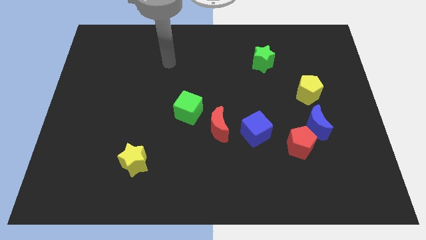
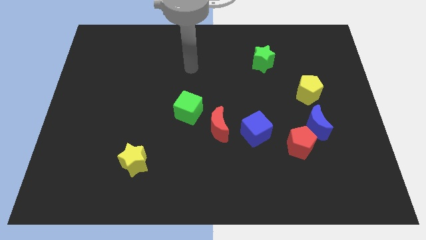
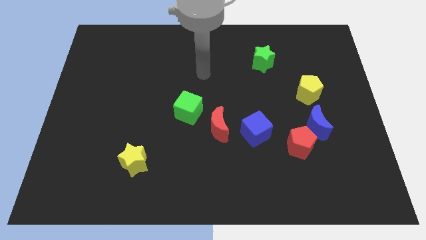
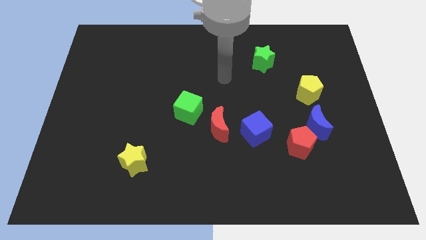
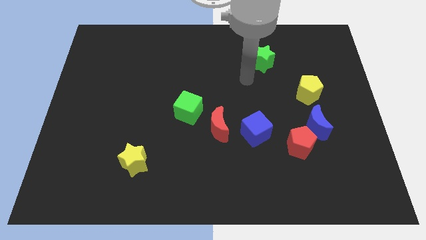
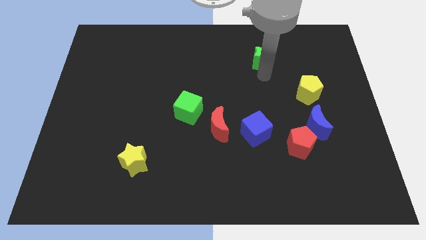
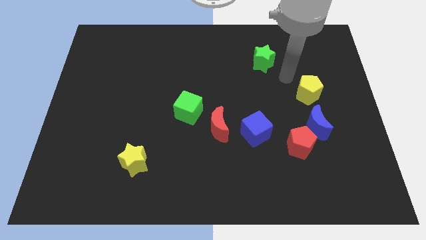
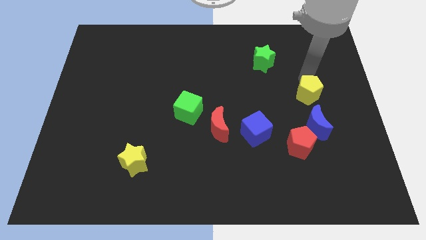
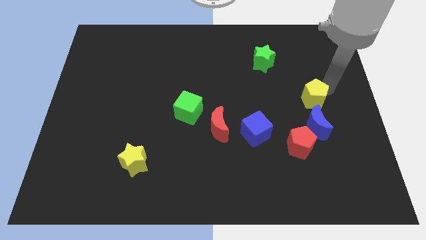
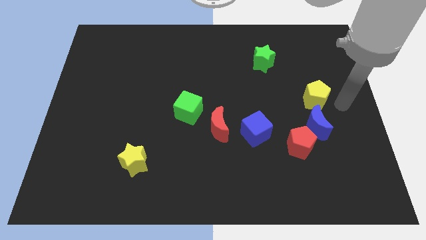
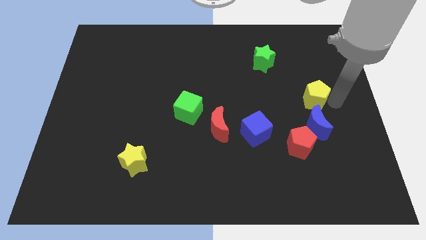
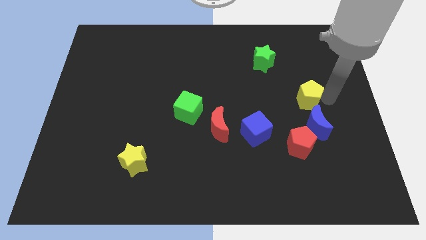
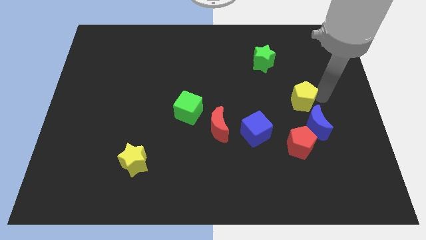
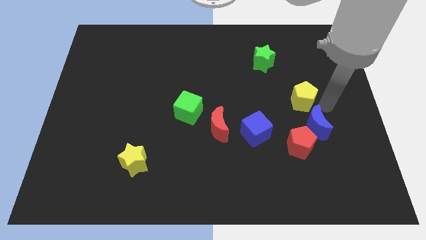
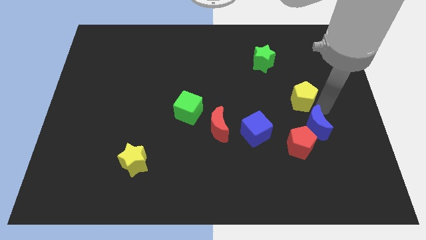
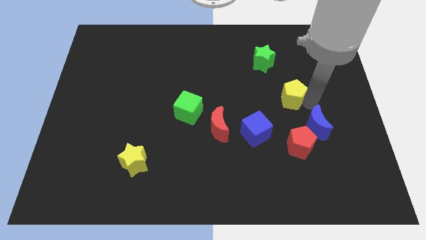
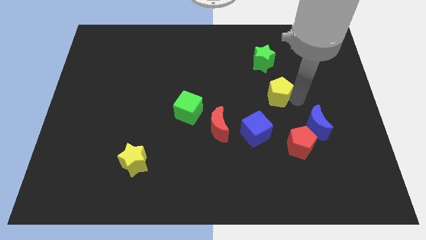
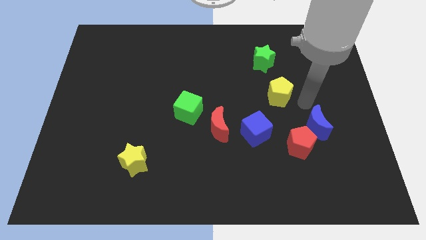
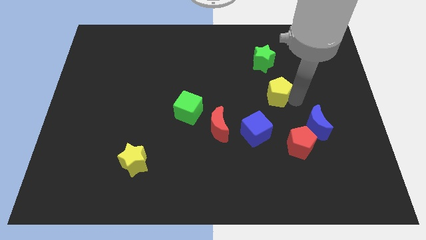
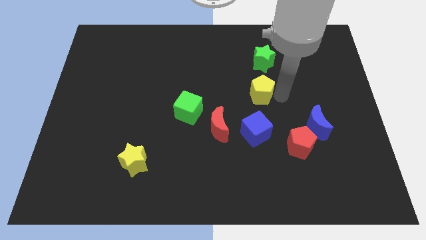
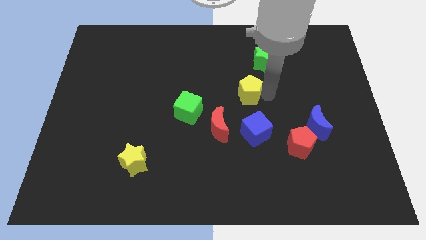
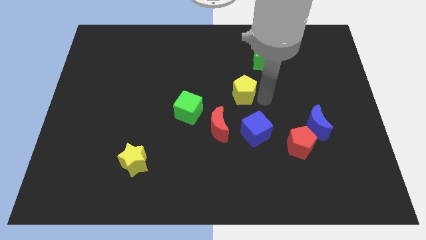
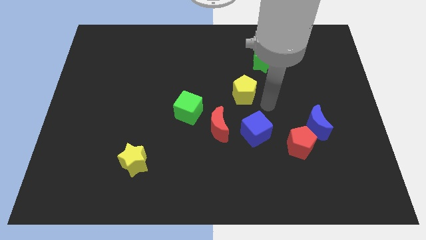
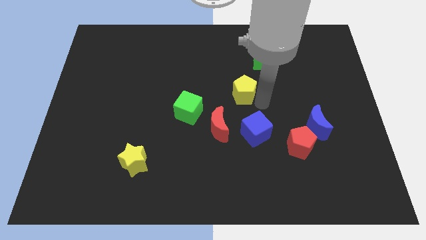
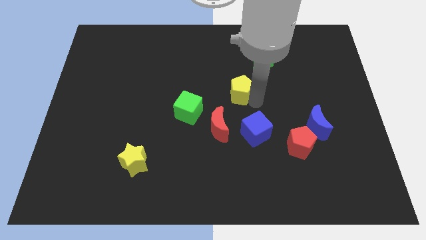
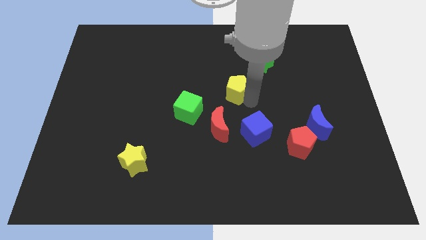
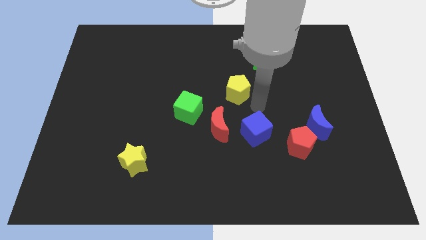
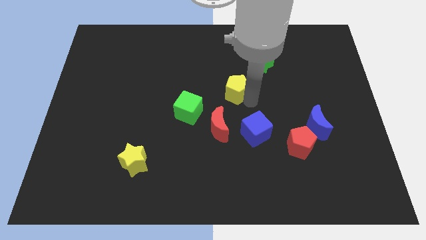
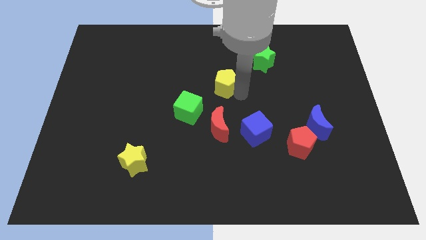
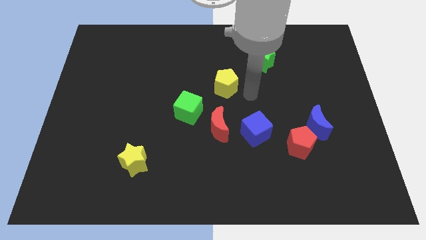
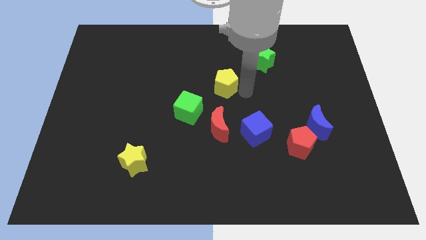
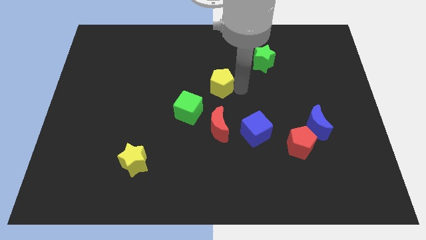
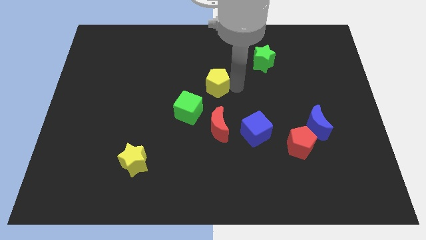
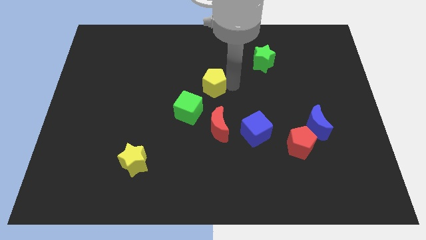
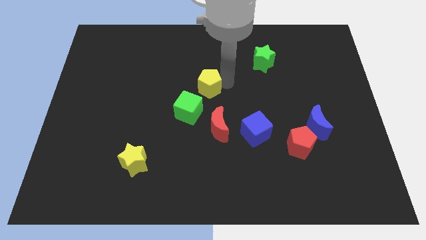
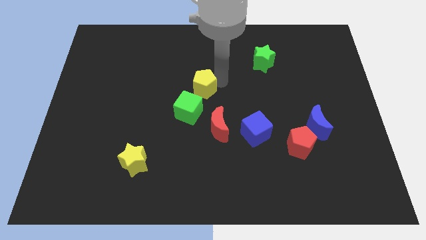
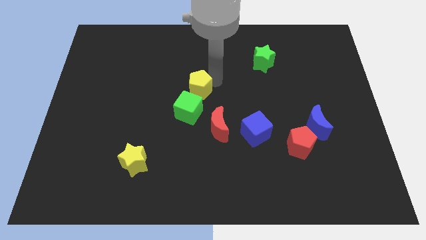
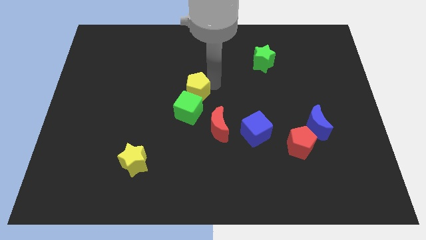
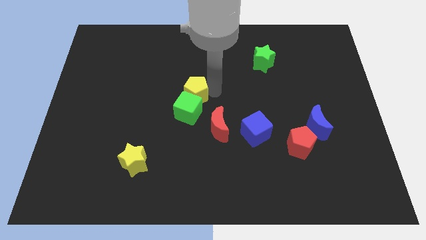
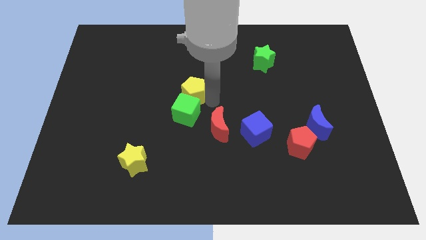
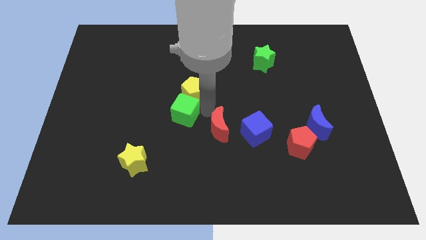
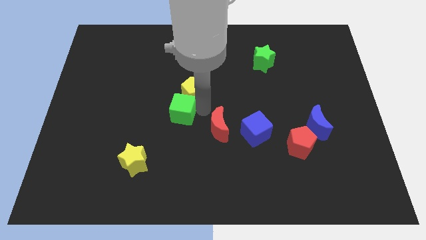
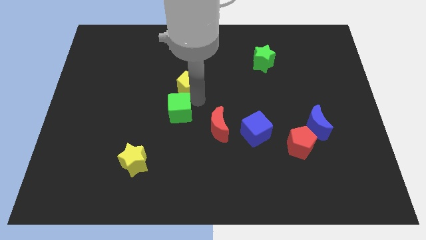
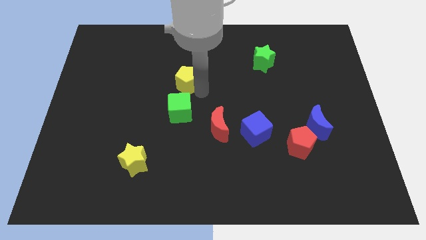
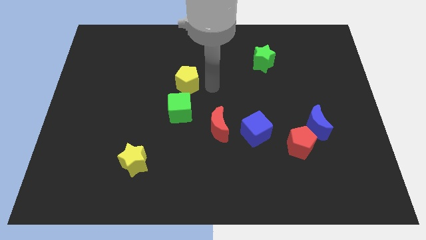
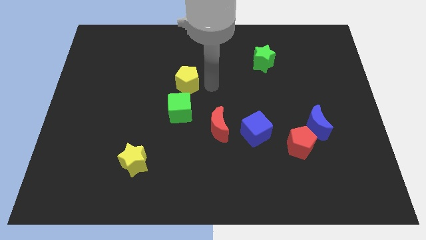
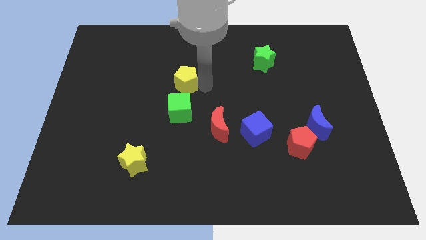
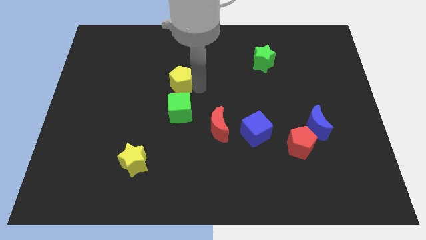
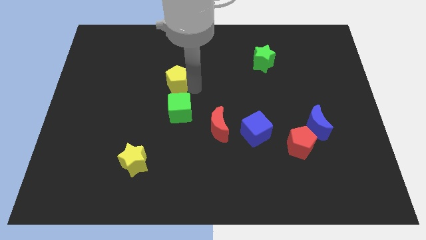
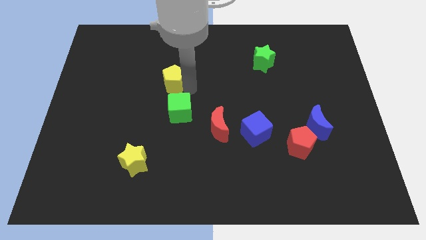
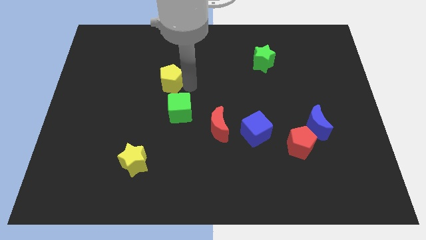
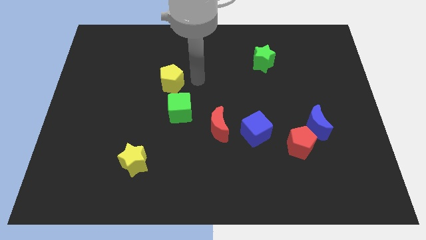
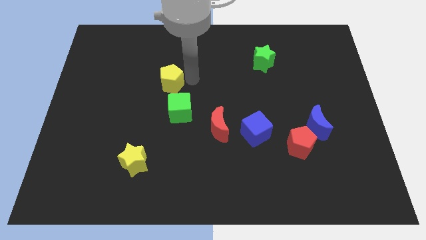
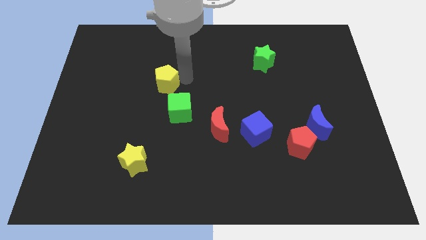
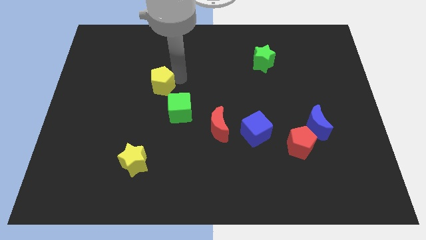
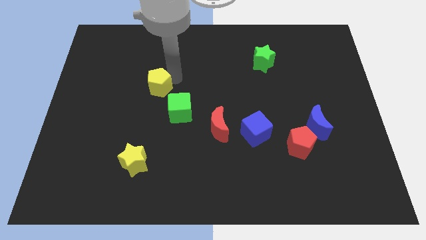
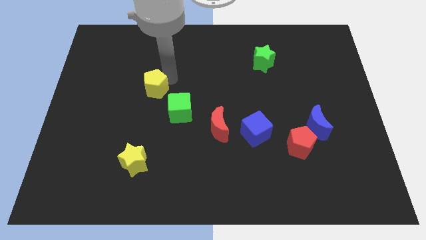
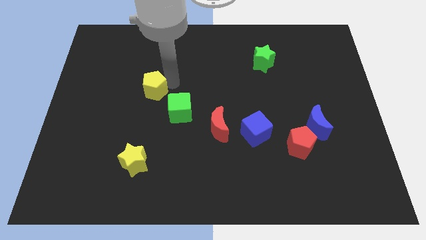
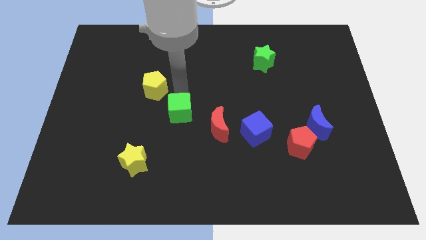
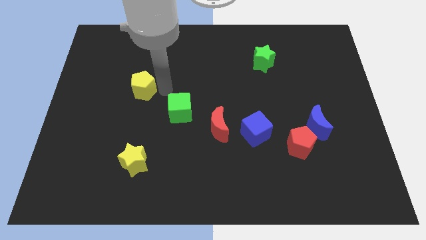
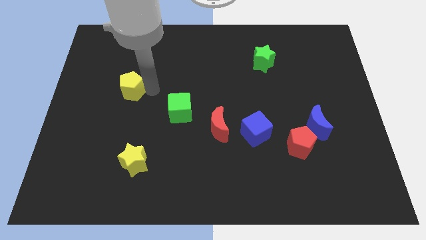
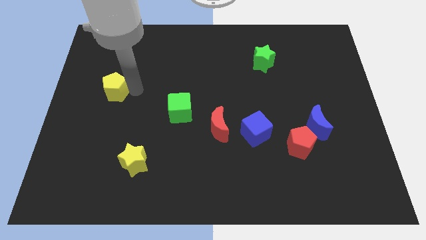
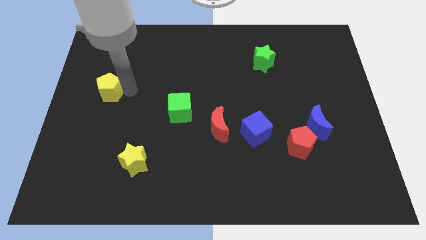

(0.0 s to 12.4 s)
slide the yellow pentagon to the left side of the board
